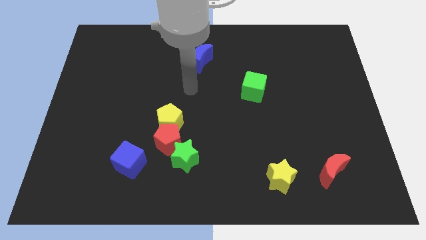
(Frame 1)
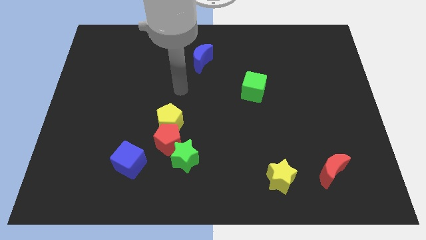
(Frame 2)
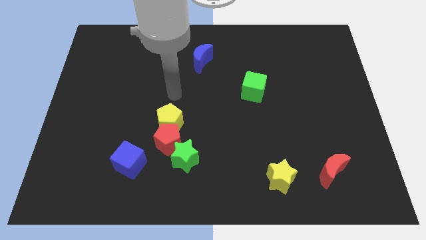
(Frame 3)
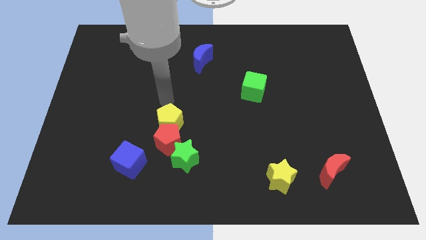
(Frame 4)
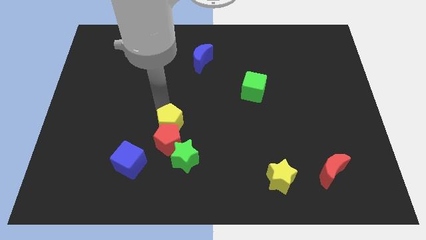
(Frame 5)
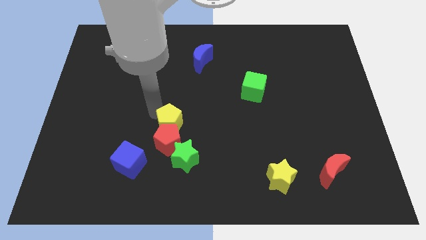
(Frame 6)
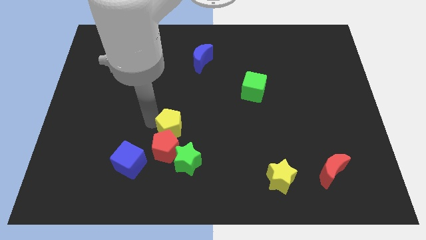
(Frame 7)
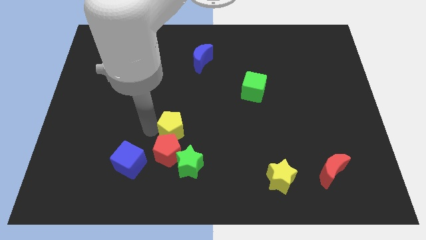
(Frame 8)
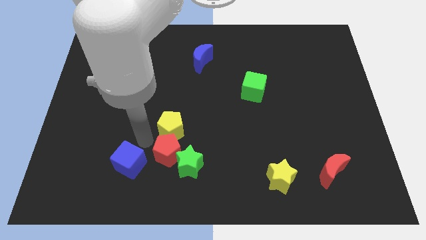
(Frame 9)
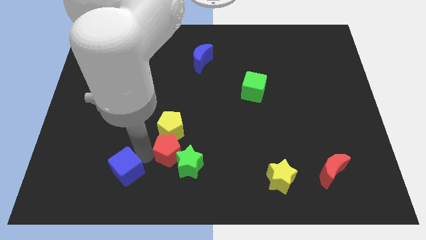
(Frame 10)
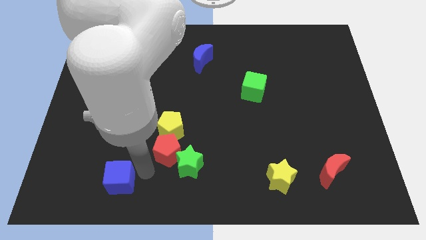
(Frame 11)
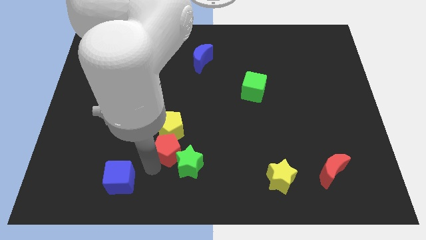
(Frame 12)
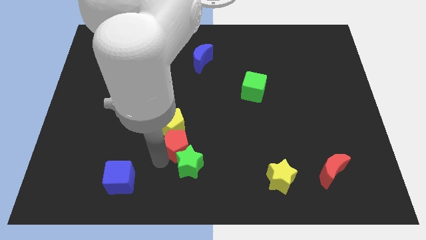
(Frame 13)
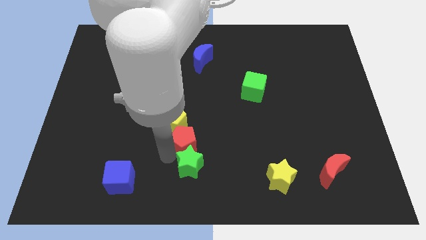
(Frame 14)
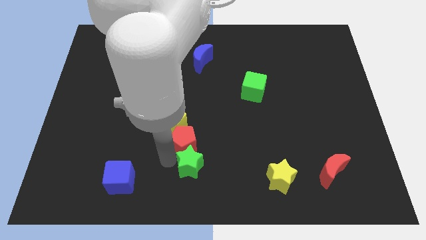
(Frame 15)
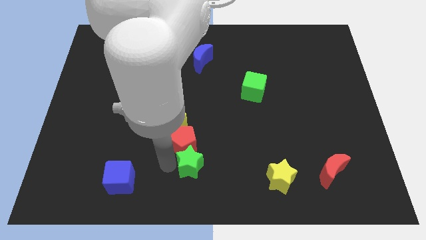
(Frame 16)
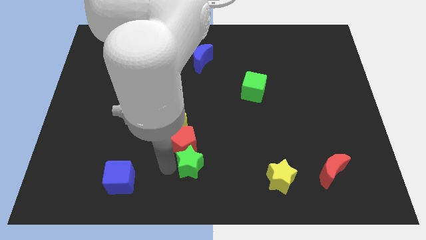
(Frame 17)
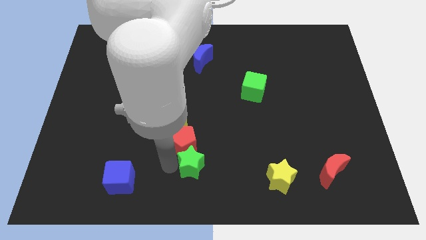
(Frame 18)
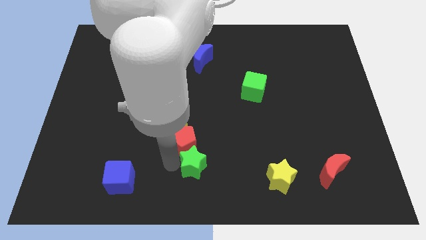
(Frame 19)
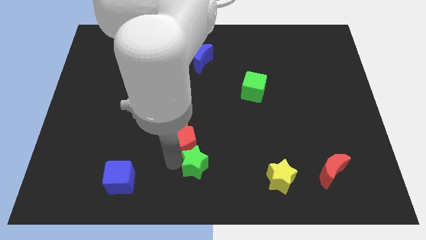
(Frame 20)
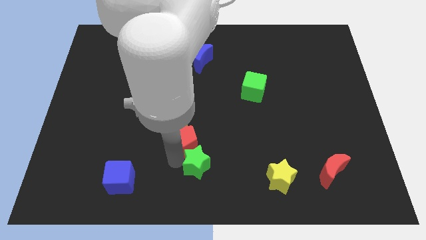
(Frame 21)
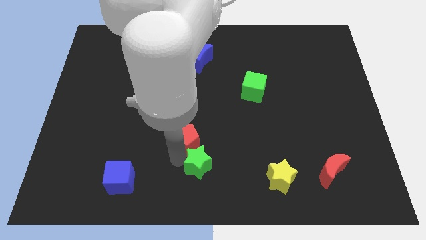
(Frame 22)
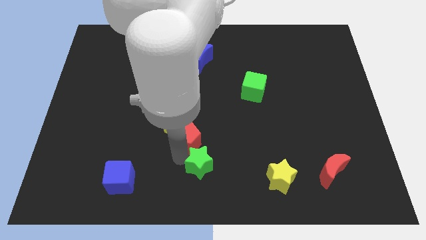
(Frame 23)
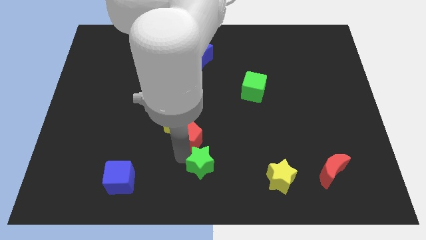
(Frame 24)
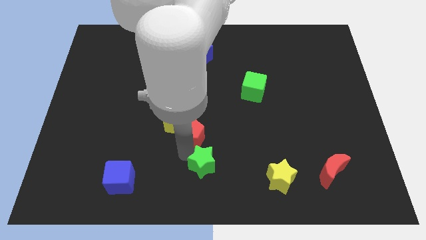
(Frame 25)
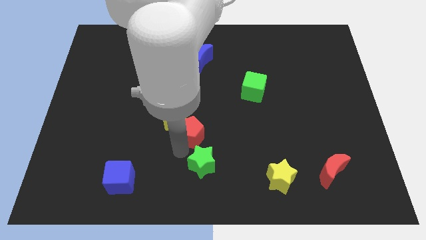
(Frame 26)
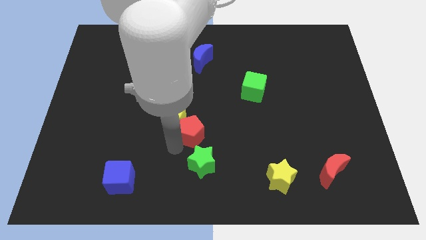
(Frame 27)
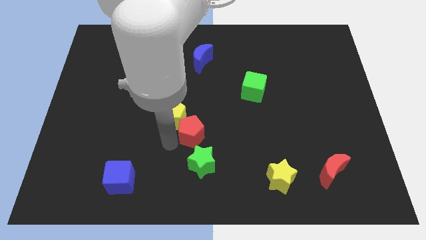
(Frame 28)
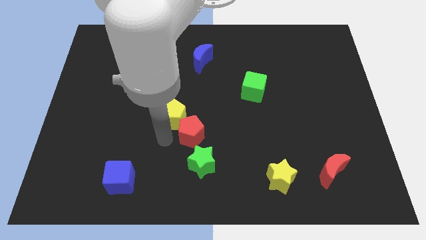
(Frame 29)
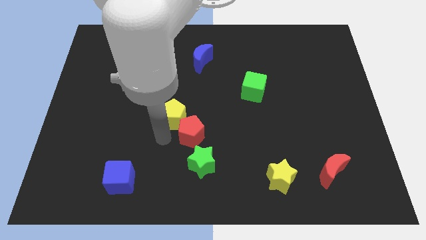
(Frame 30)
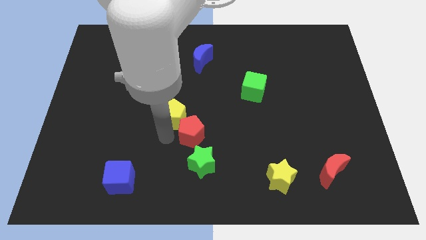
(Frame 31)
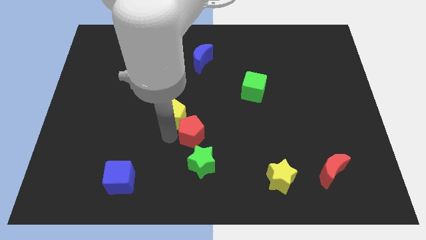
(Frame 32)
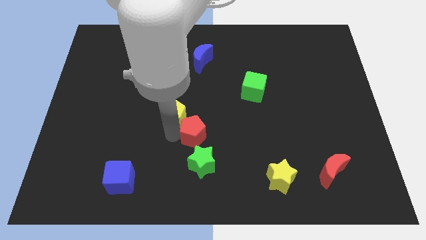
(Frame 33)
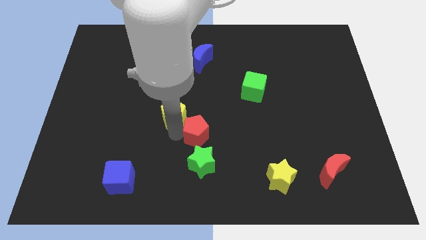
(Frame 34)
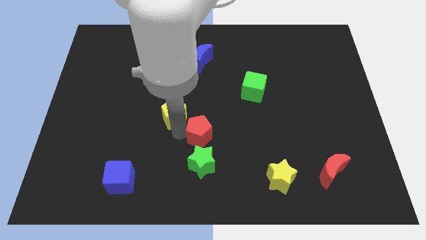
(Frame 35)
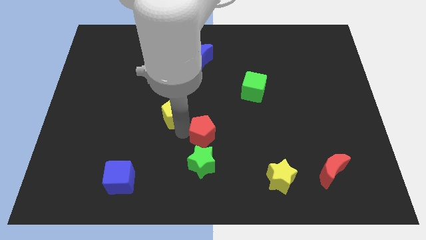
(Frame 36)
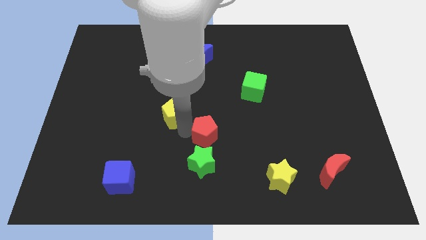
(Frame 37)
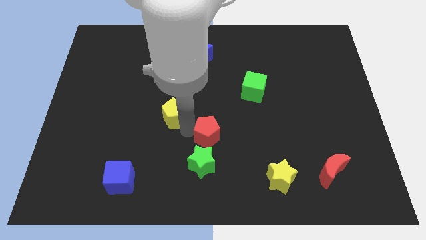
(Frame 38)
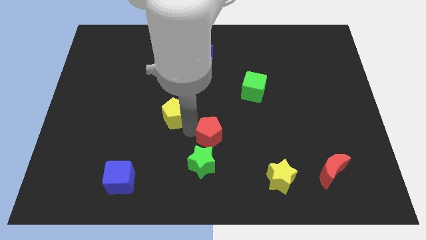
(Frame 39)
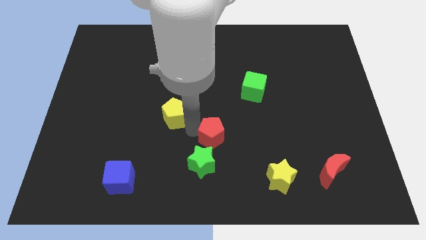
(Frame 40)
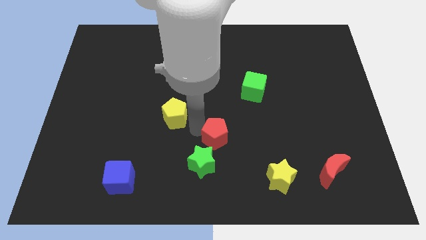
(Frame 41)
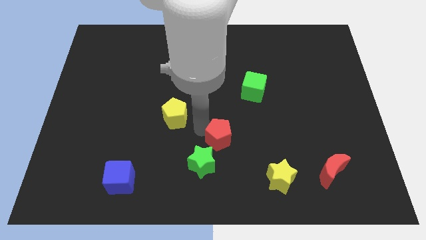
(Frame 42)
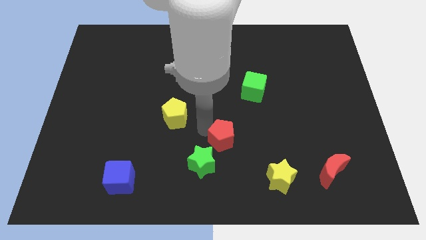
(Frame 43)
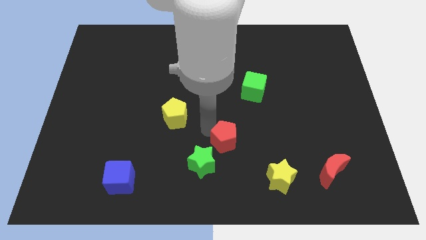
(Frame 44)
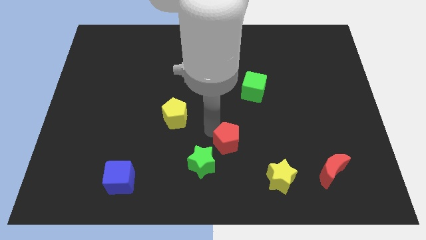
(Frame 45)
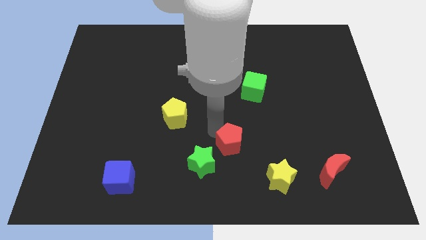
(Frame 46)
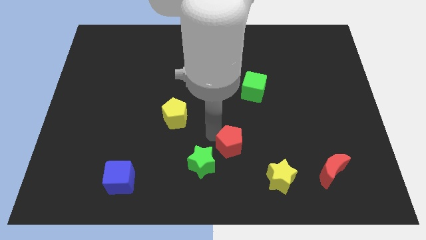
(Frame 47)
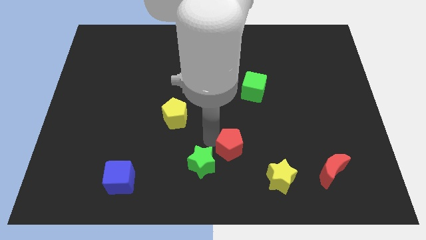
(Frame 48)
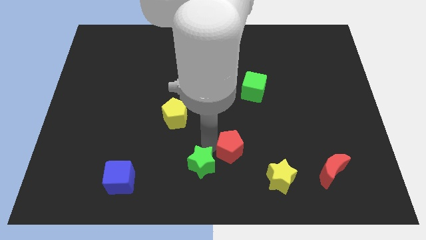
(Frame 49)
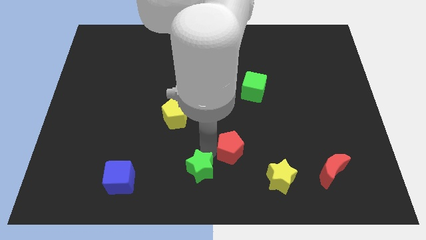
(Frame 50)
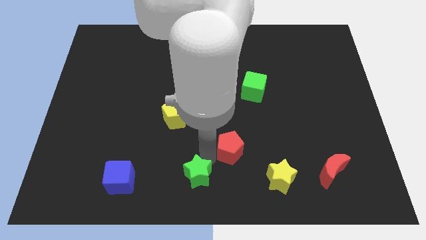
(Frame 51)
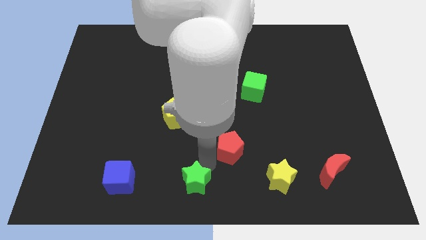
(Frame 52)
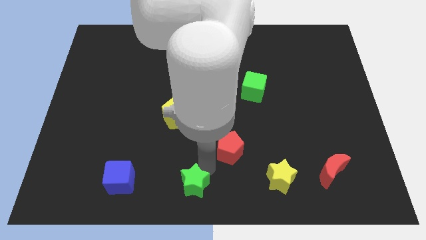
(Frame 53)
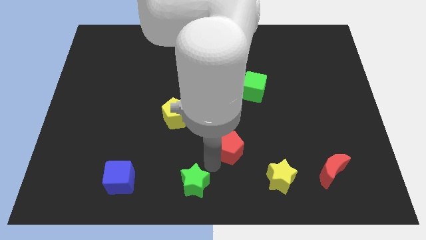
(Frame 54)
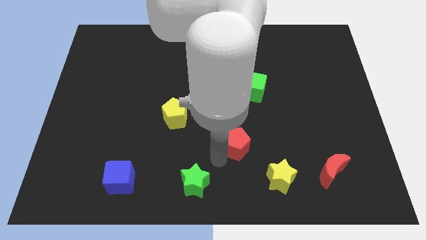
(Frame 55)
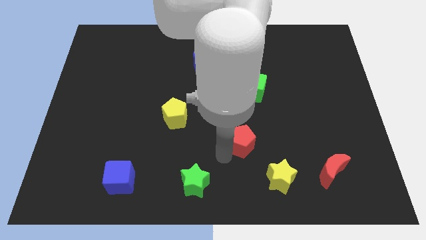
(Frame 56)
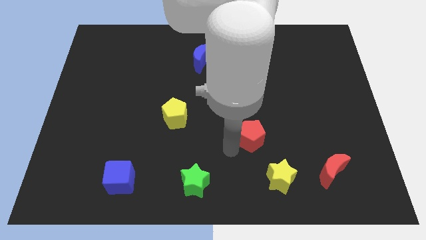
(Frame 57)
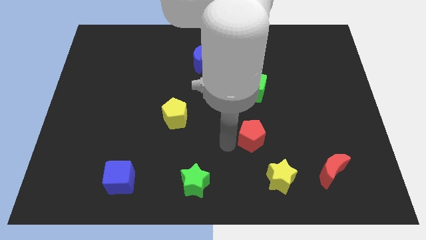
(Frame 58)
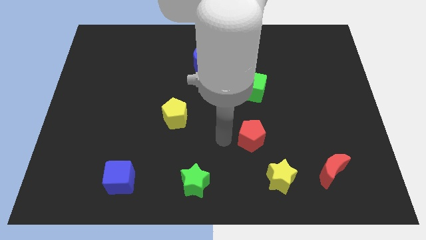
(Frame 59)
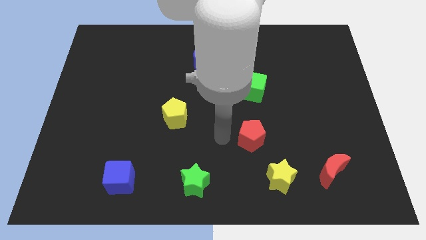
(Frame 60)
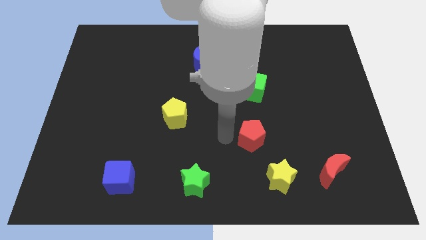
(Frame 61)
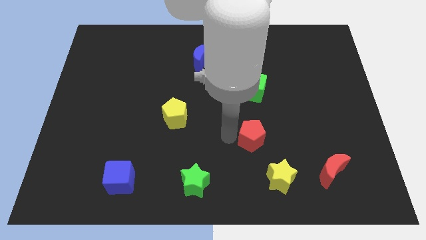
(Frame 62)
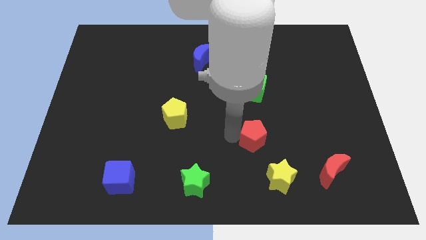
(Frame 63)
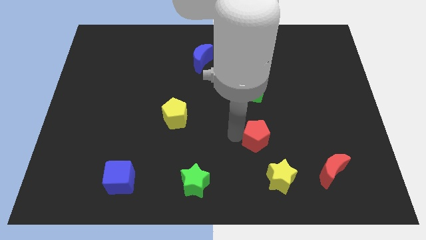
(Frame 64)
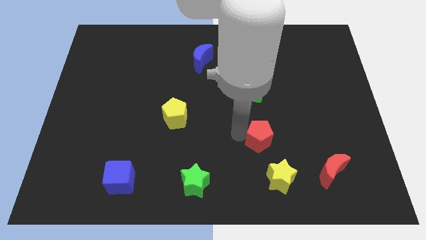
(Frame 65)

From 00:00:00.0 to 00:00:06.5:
move the red pentagon to the right

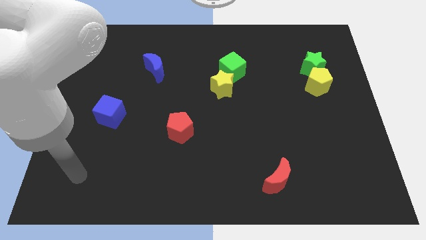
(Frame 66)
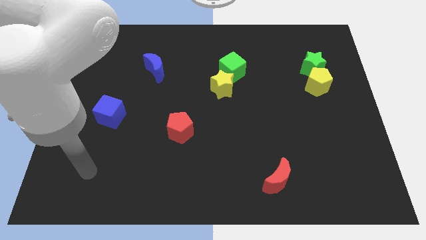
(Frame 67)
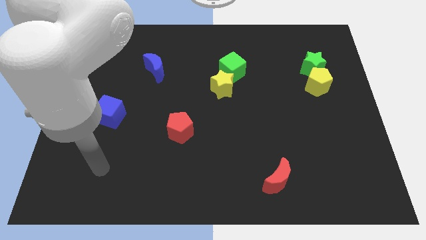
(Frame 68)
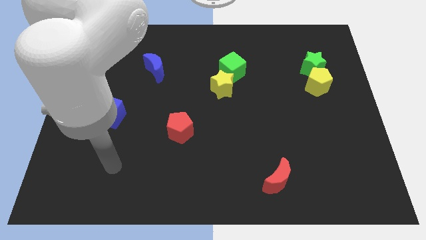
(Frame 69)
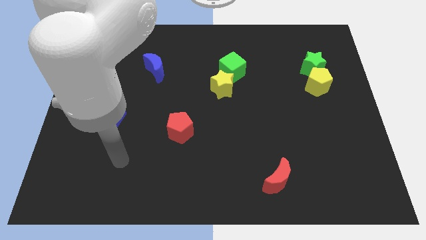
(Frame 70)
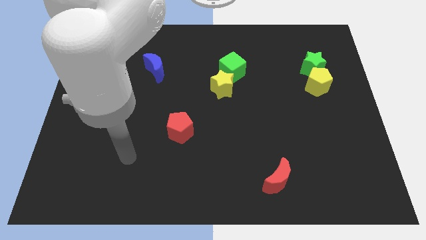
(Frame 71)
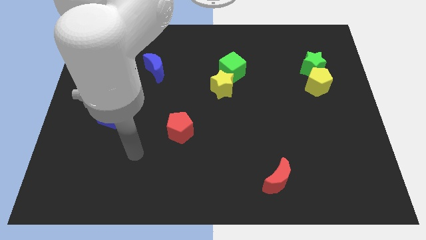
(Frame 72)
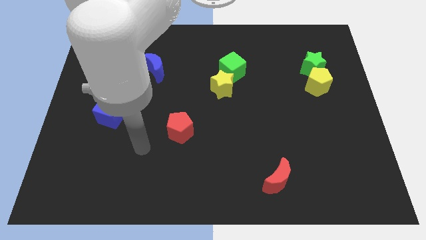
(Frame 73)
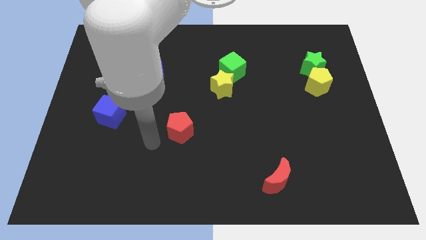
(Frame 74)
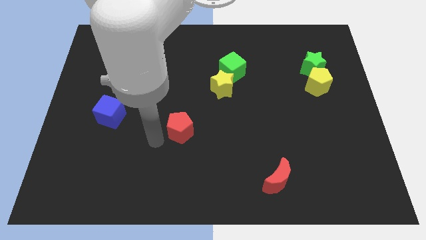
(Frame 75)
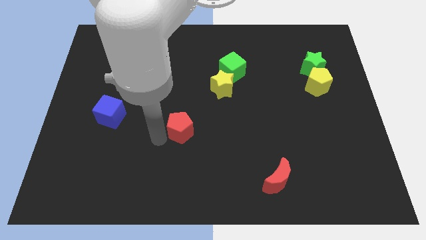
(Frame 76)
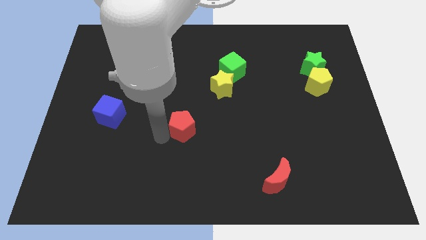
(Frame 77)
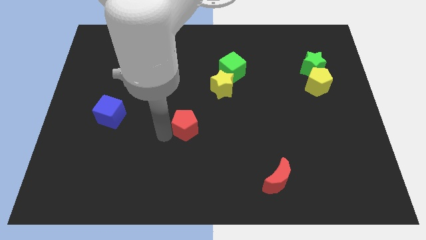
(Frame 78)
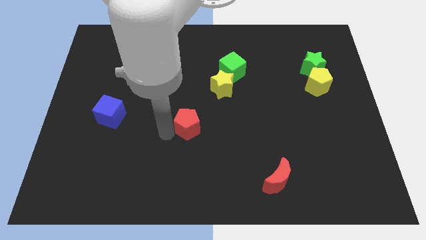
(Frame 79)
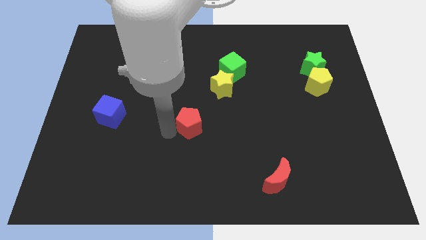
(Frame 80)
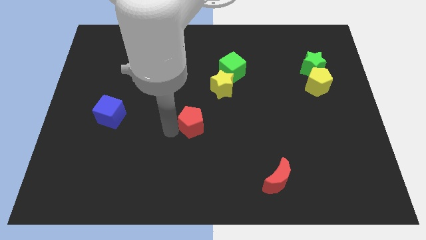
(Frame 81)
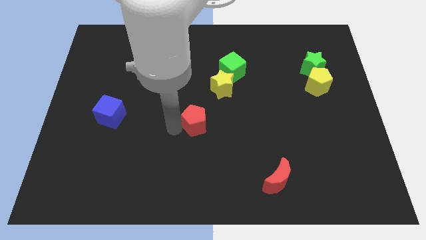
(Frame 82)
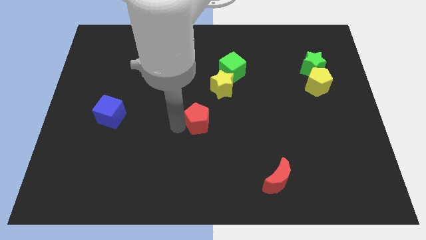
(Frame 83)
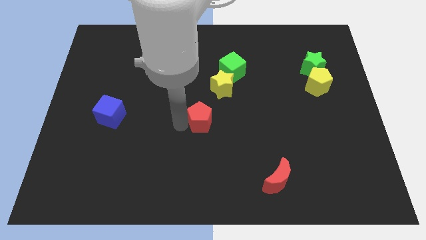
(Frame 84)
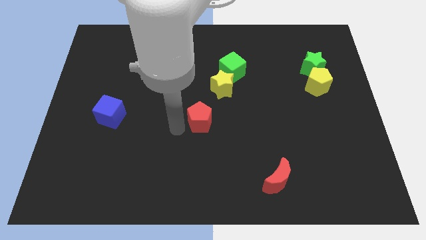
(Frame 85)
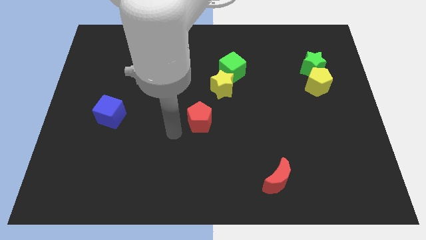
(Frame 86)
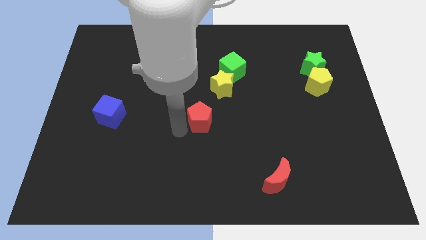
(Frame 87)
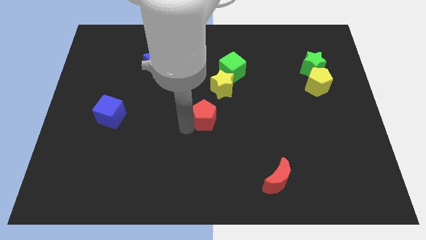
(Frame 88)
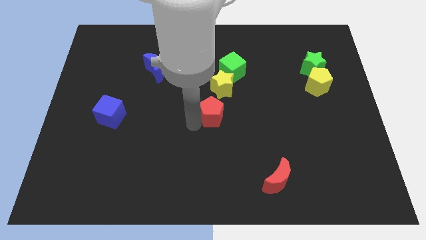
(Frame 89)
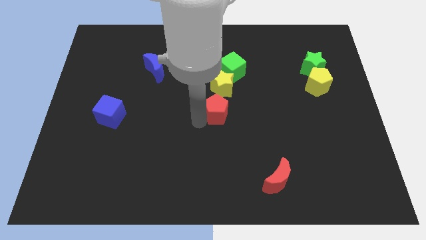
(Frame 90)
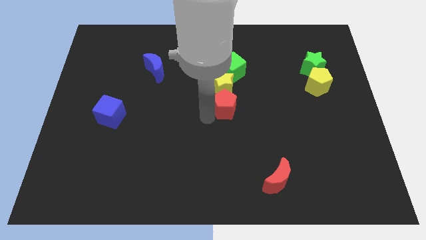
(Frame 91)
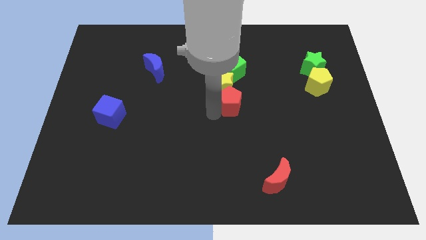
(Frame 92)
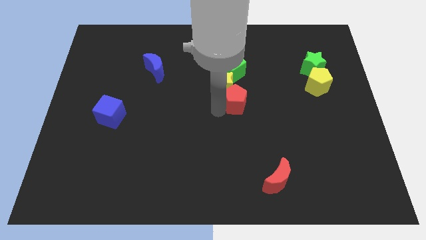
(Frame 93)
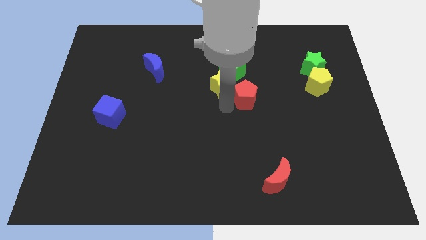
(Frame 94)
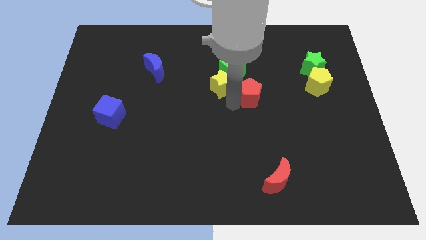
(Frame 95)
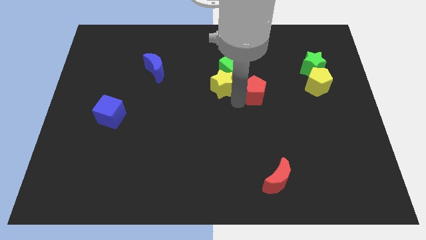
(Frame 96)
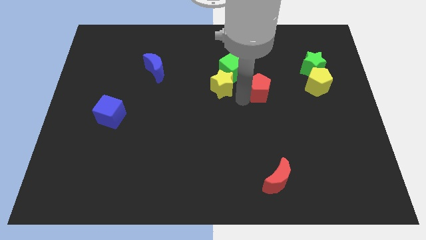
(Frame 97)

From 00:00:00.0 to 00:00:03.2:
move the red pentagon upwards and to the right
